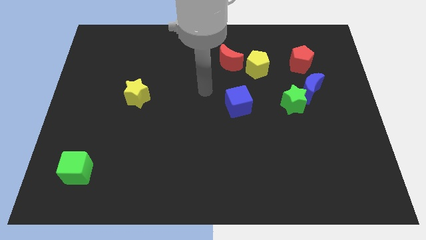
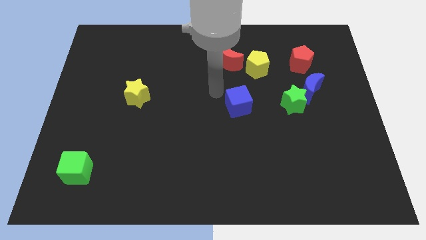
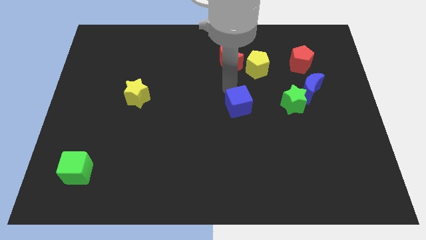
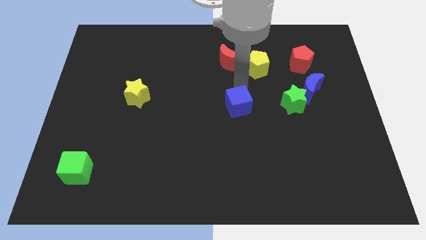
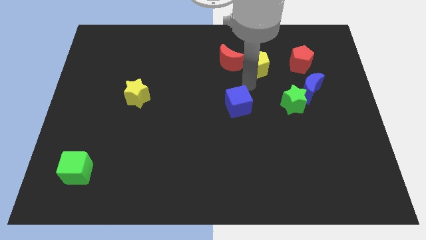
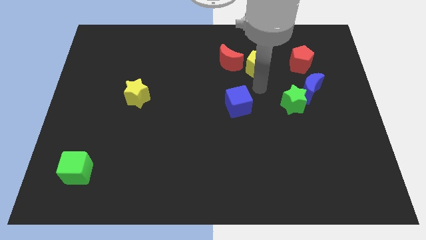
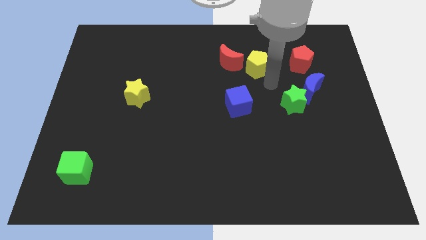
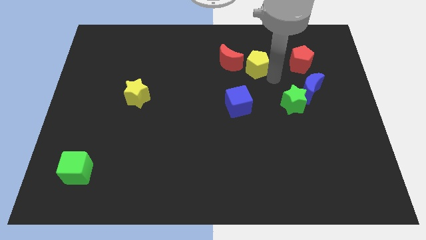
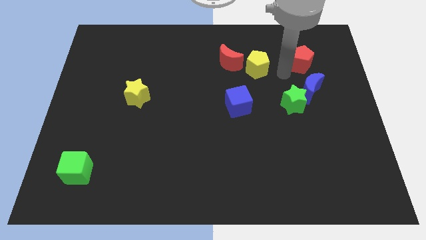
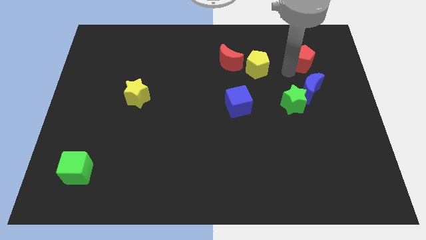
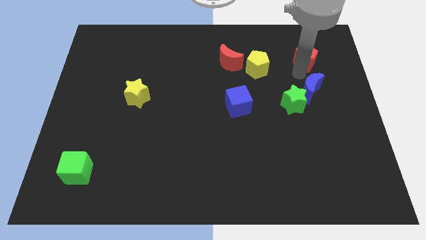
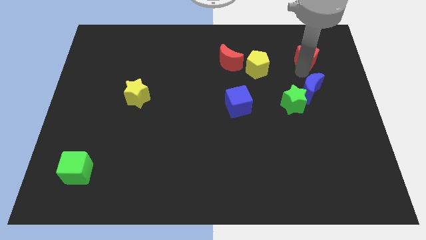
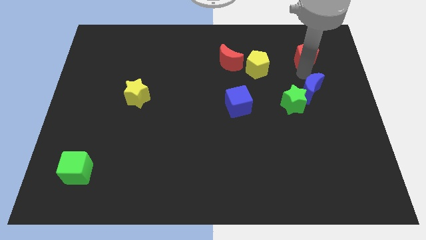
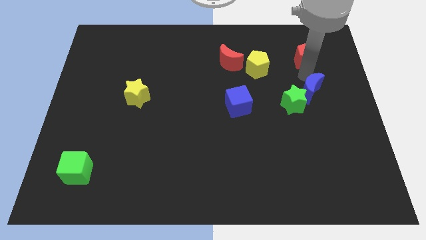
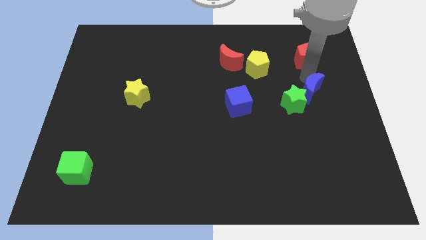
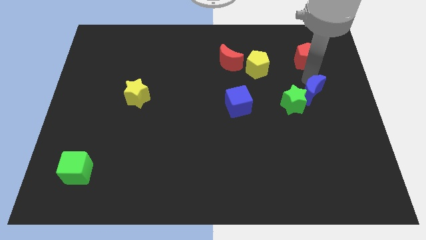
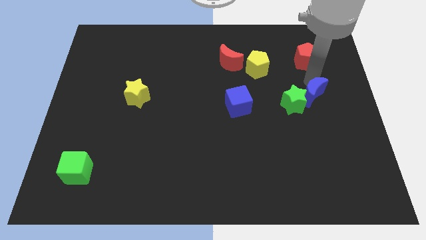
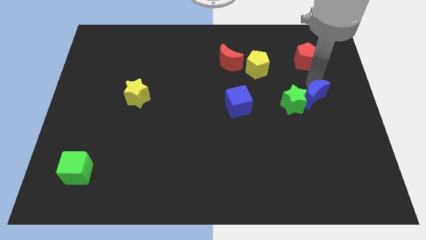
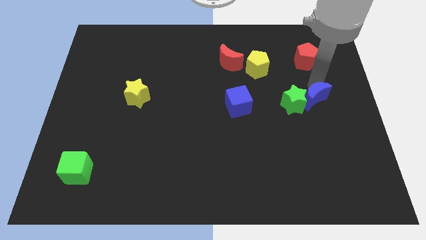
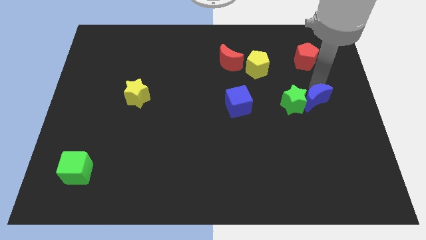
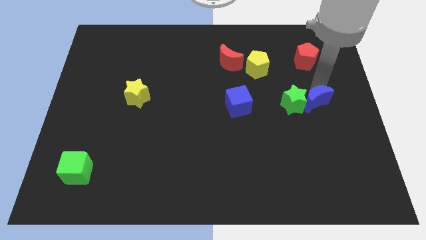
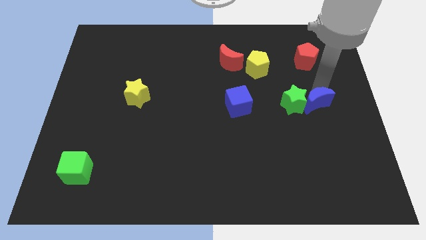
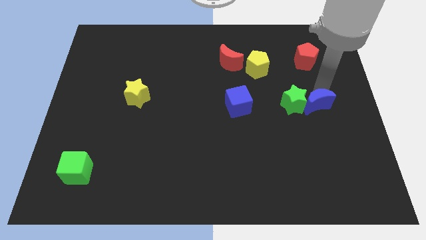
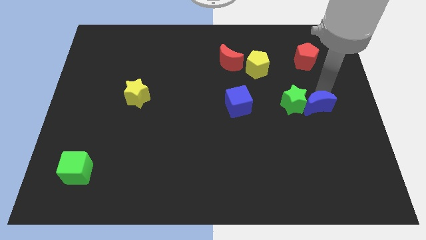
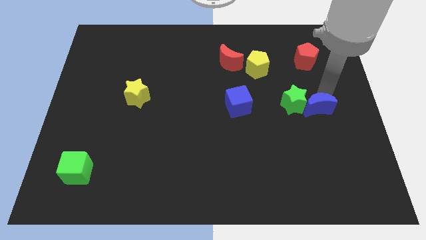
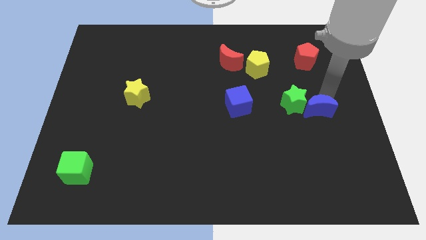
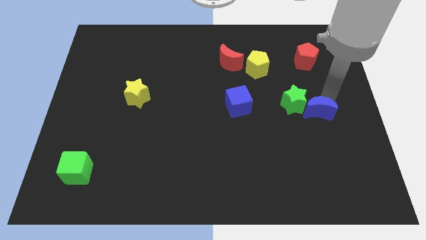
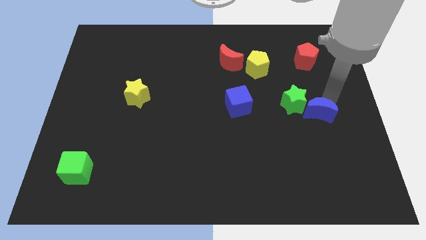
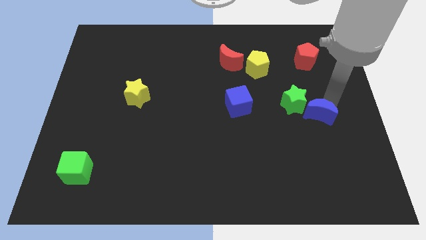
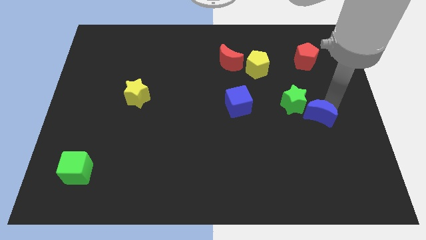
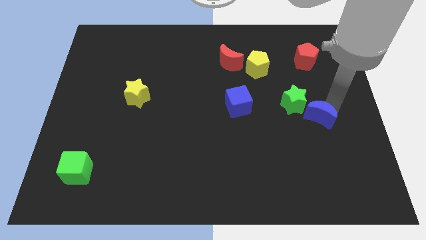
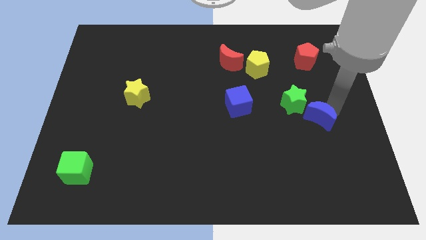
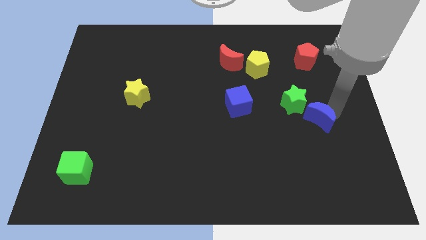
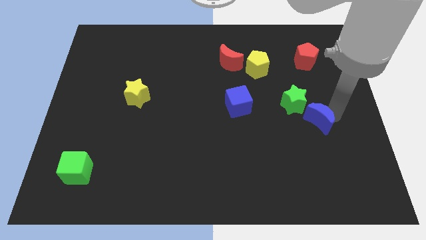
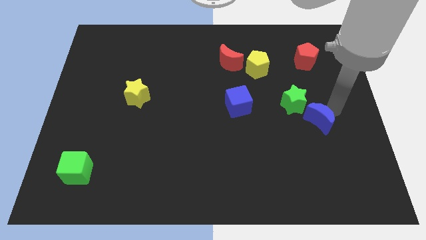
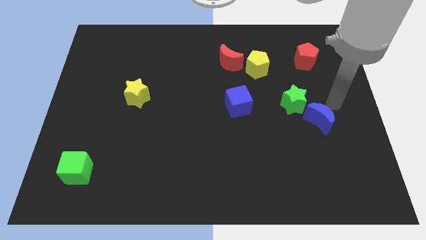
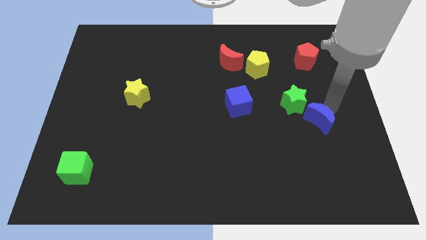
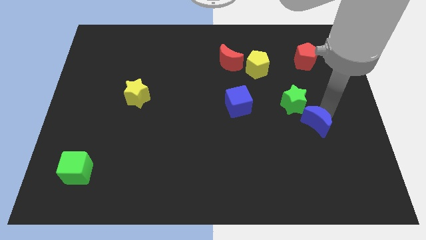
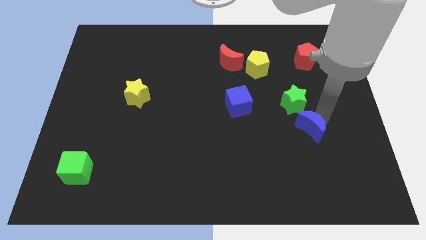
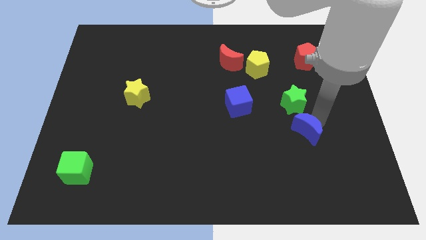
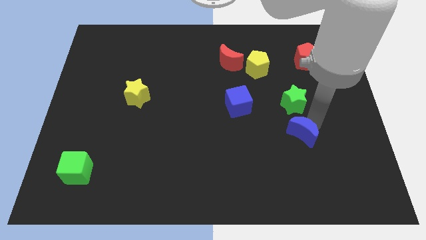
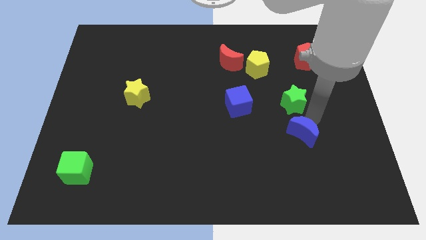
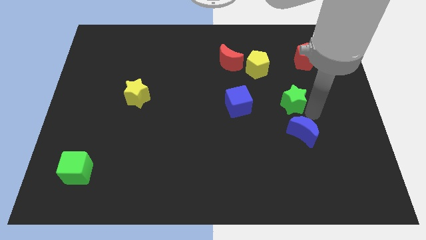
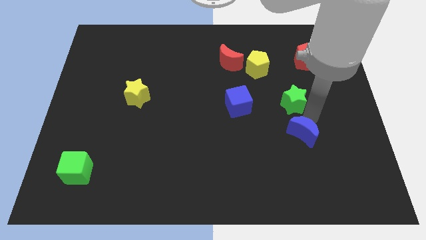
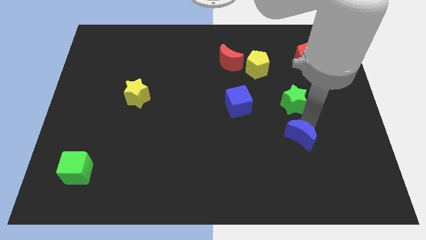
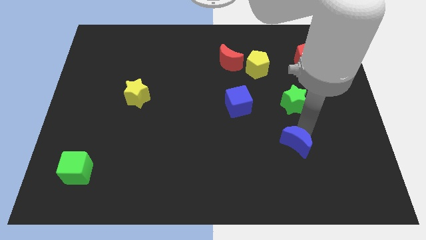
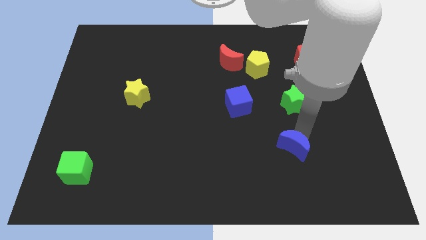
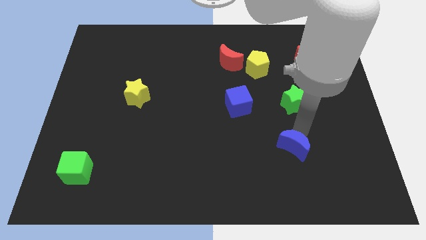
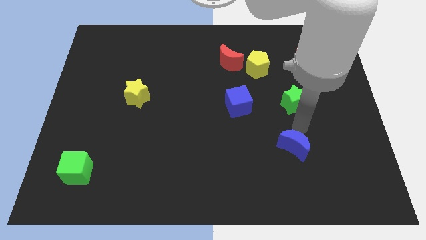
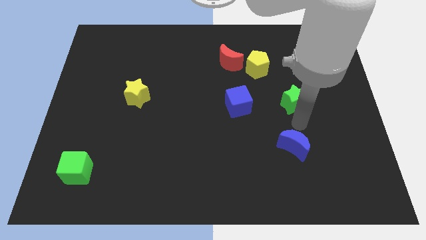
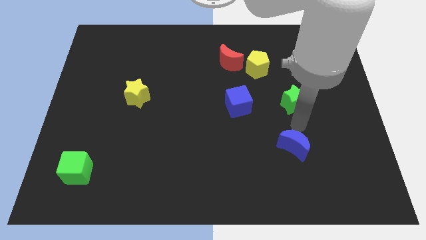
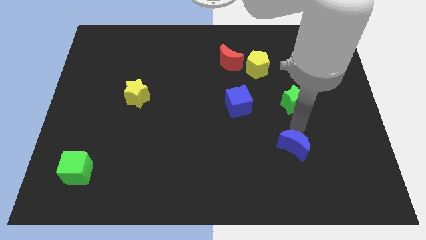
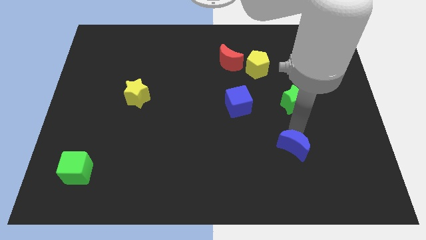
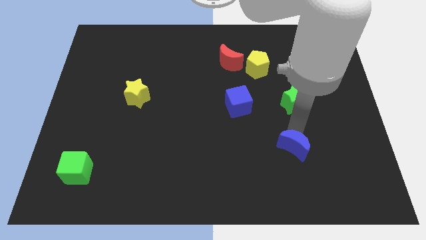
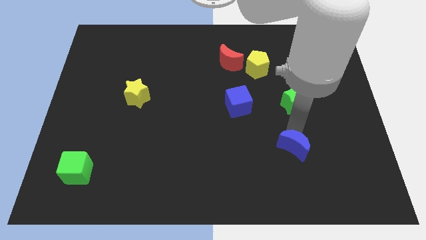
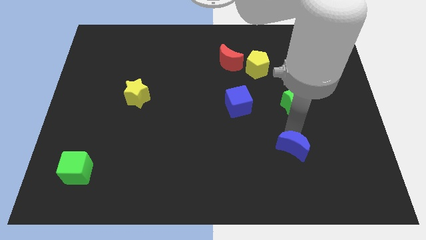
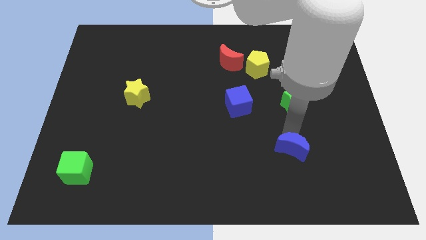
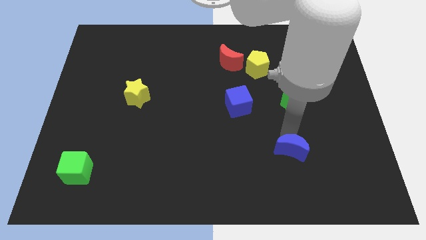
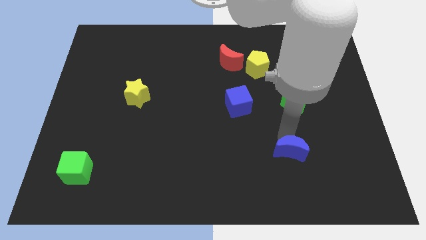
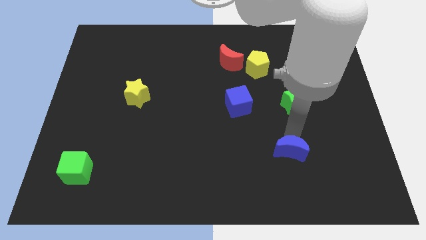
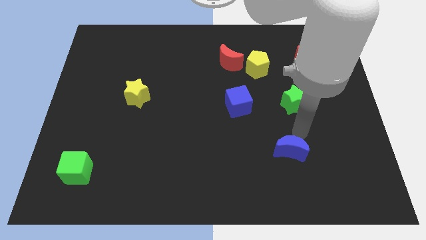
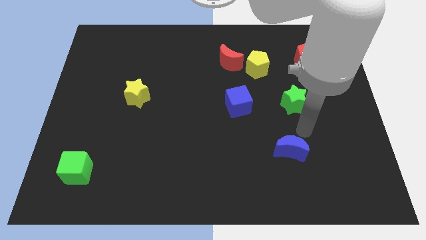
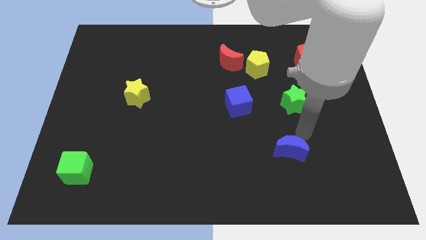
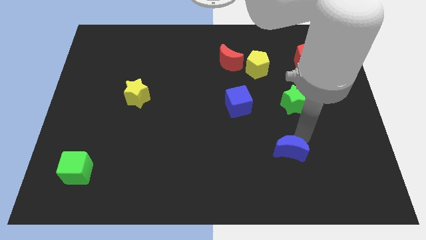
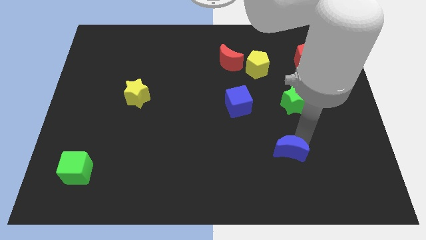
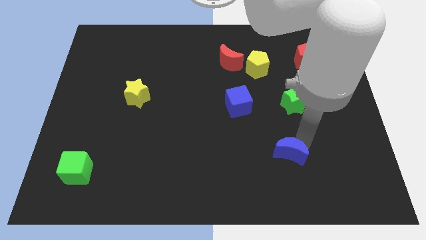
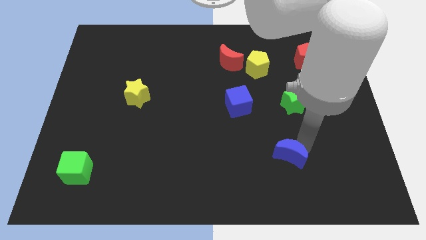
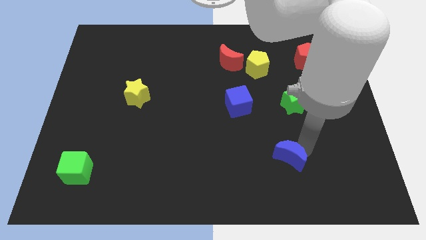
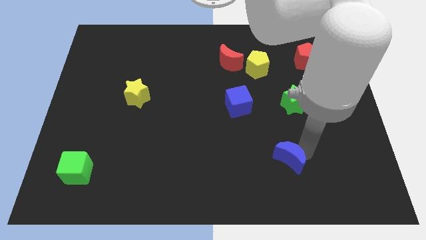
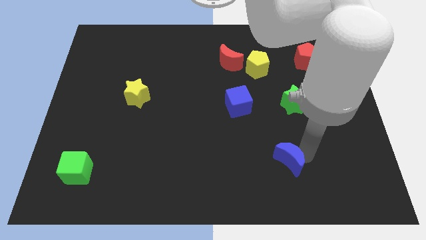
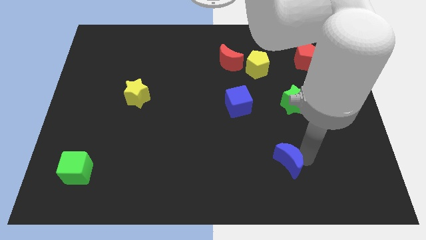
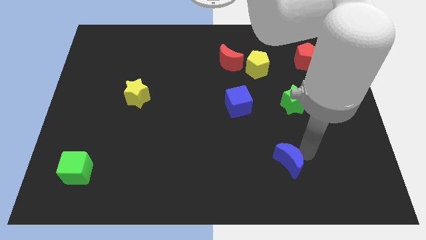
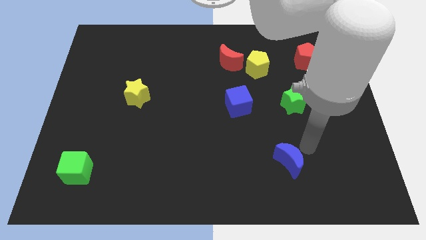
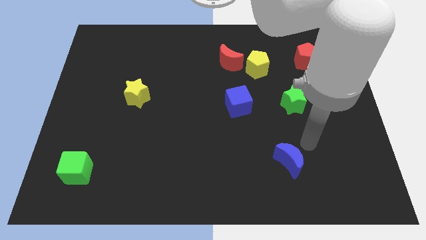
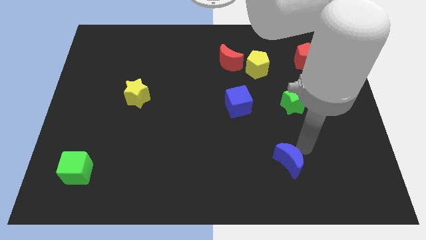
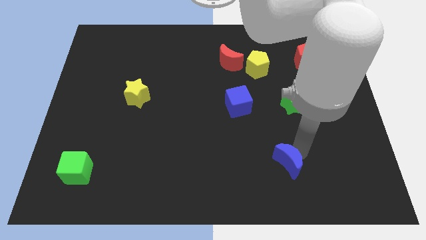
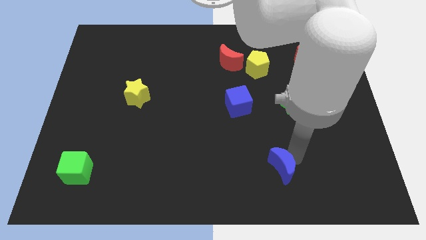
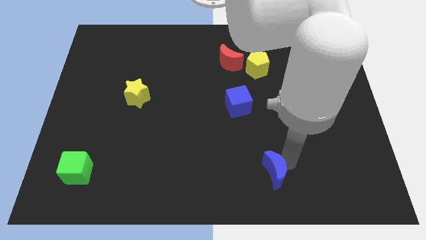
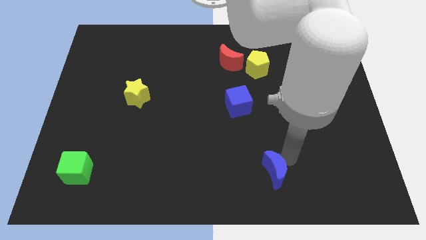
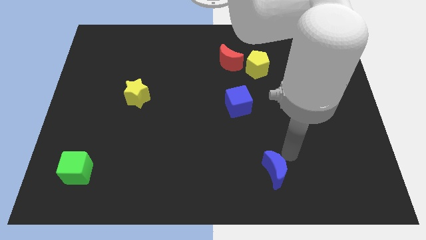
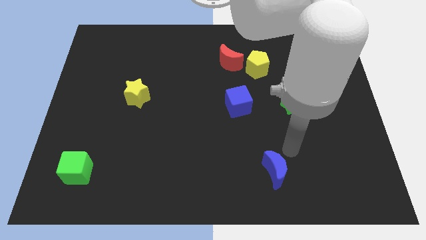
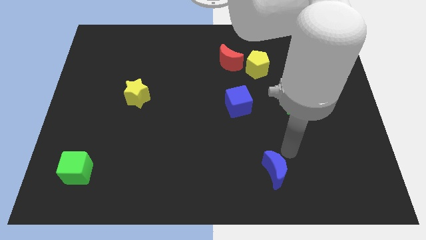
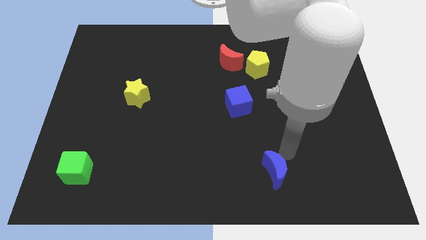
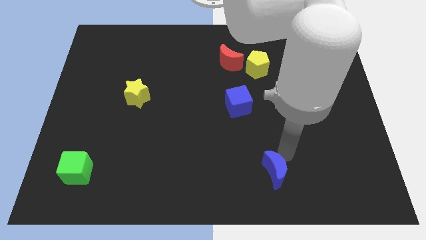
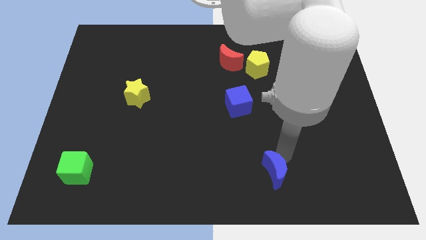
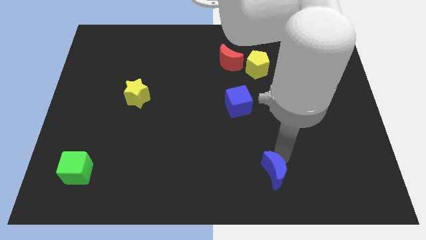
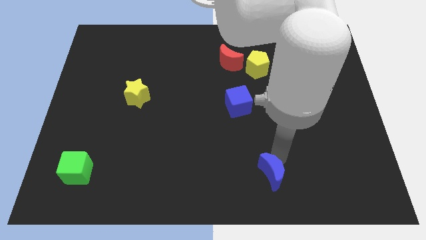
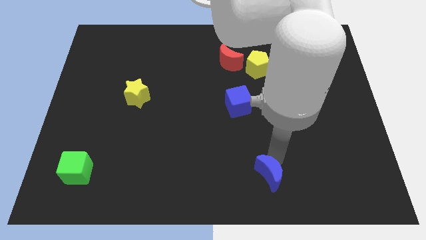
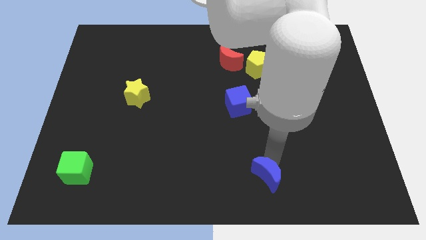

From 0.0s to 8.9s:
slide the blue moon to the bottom
